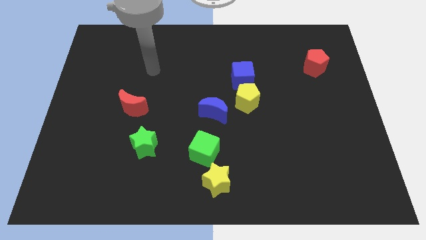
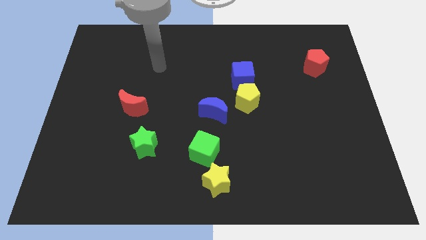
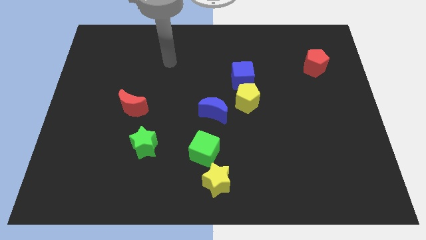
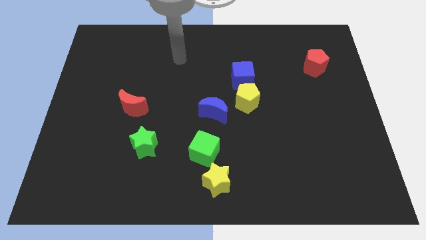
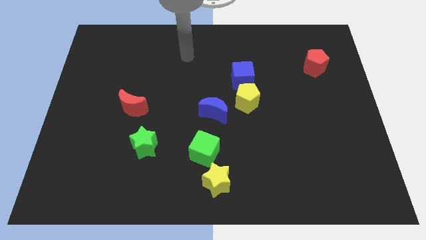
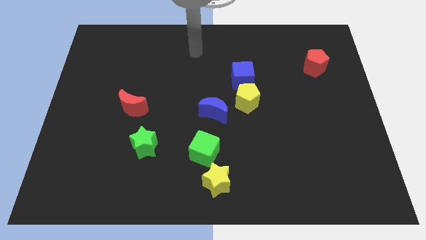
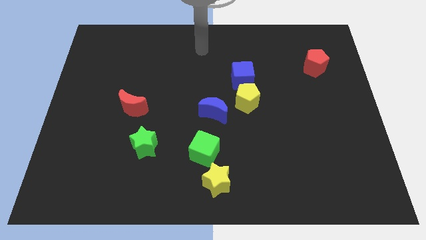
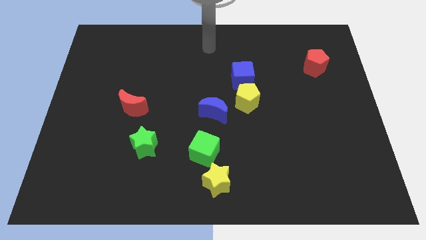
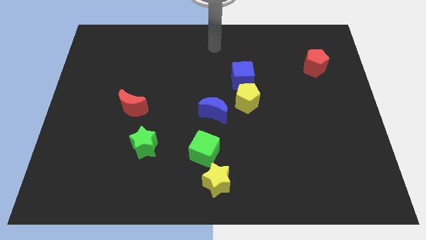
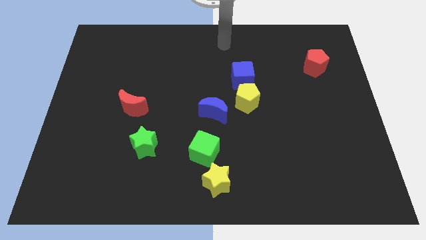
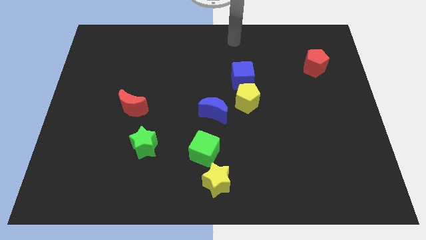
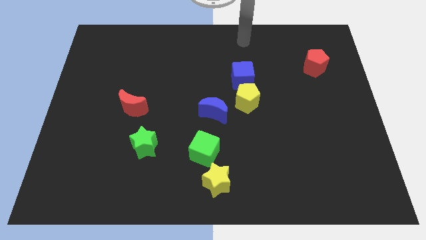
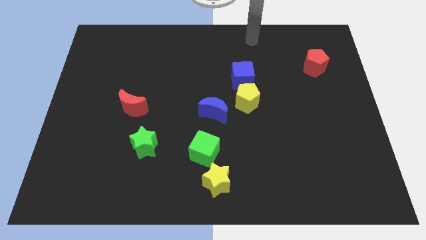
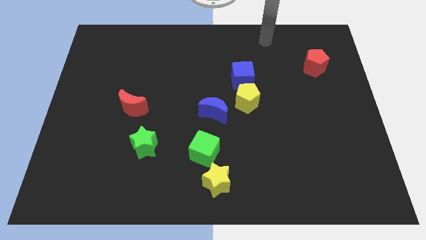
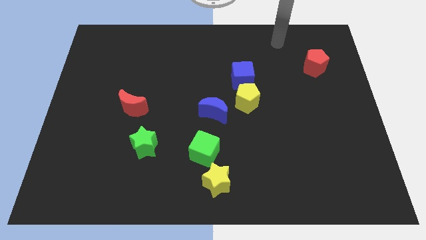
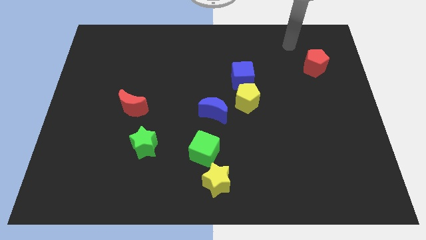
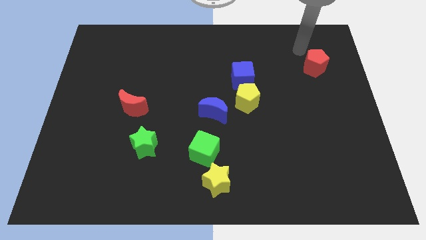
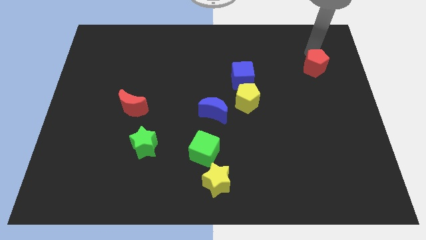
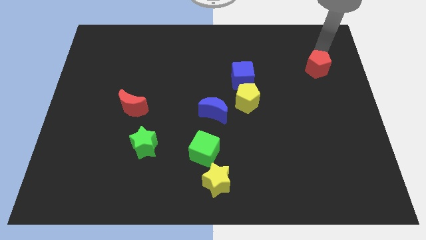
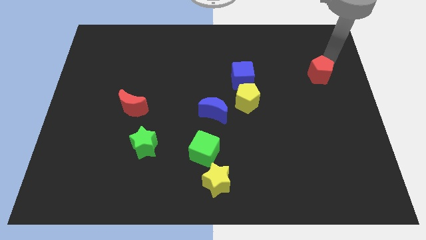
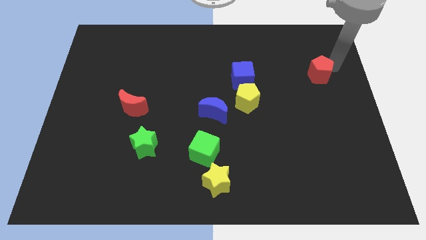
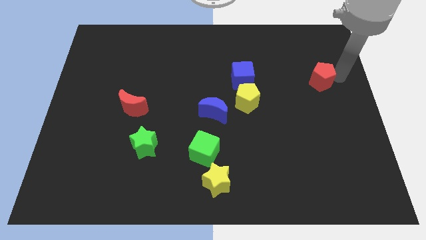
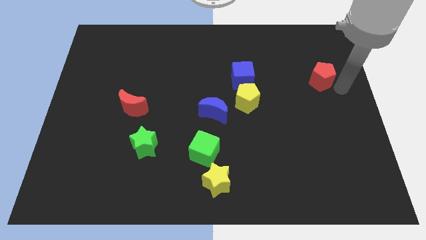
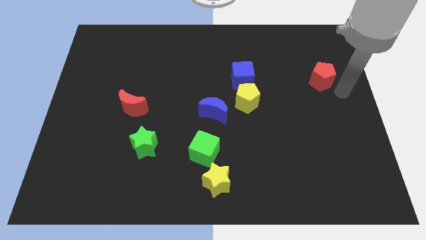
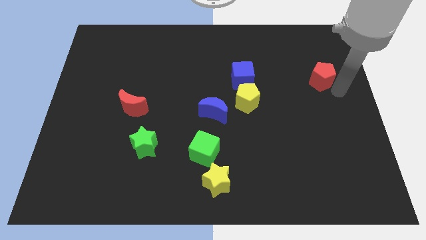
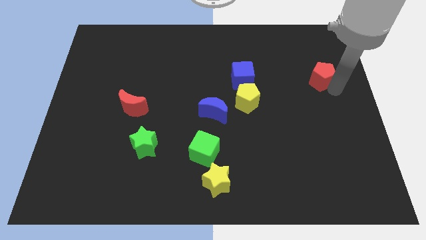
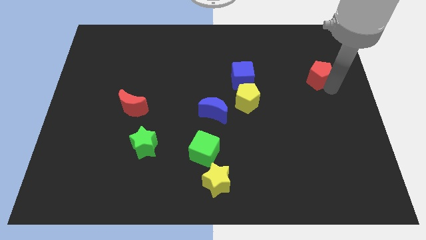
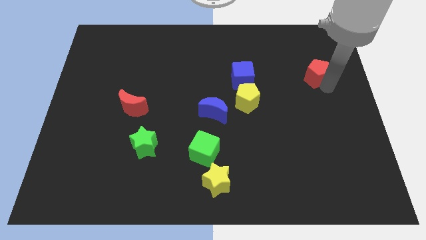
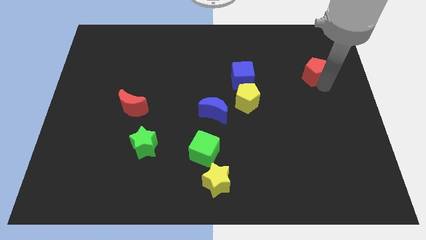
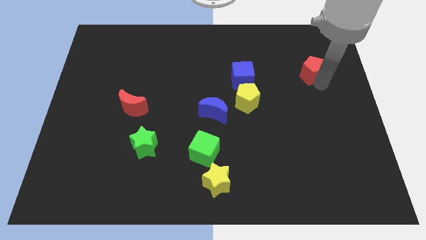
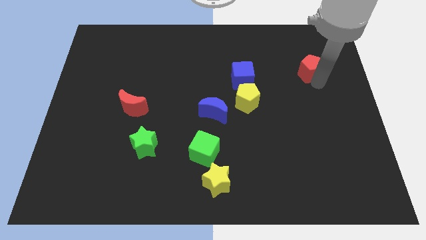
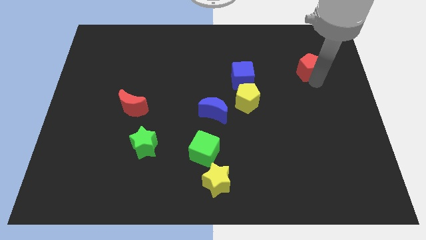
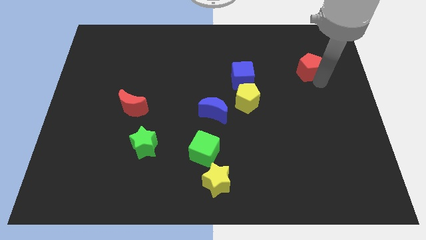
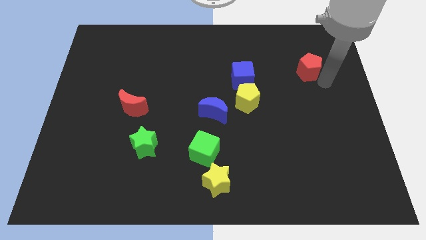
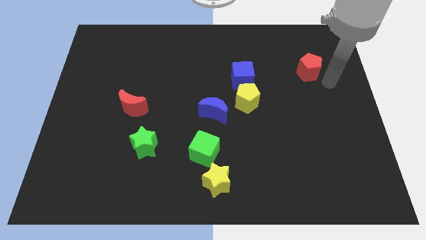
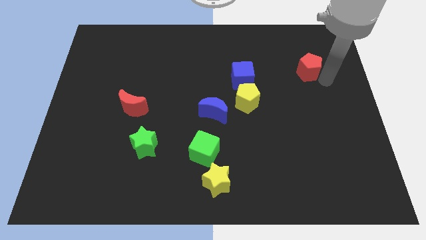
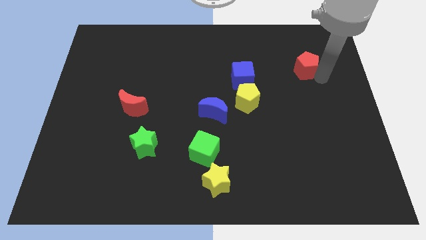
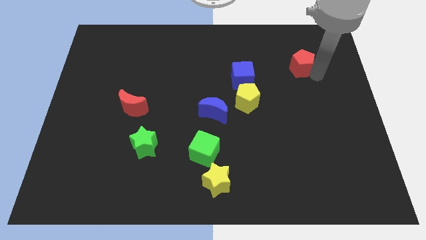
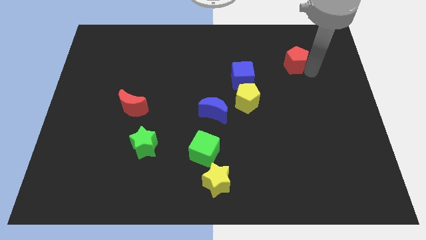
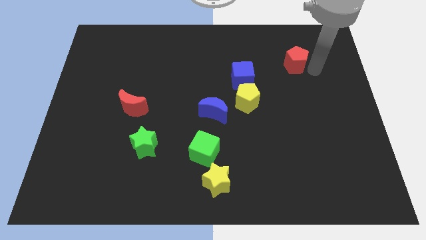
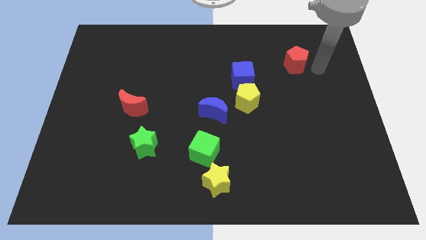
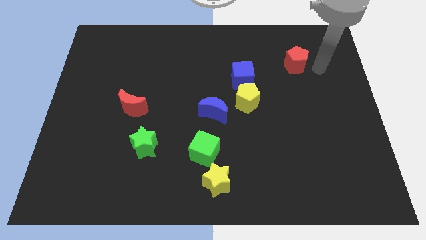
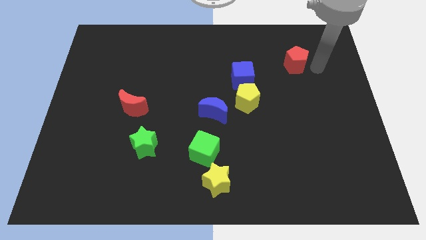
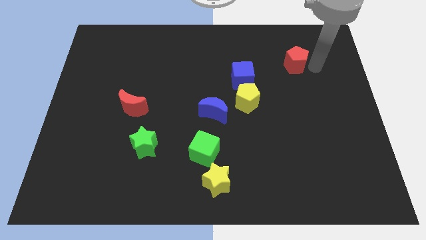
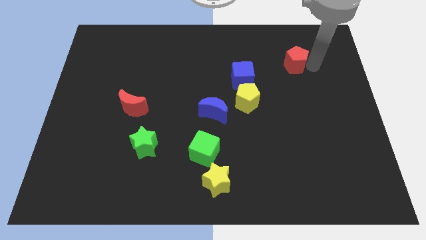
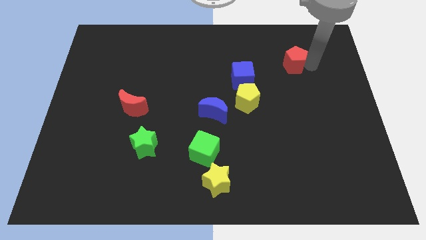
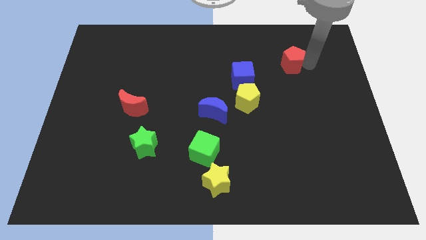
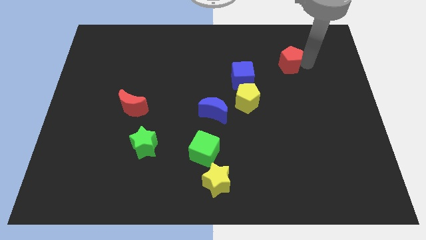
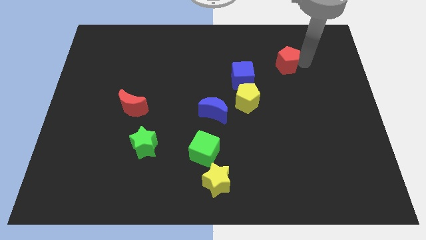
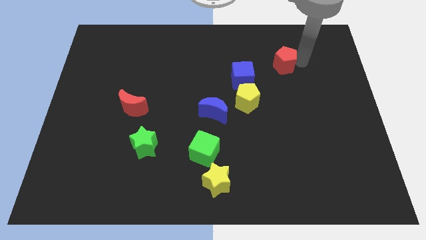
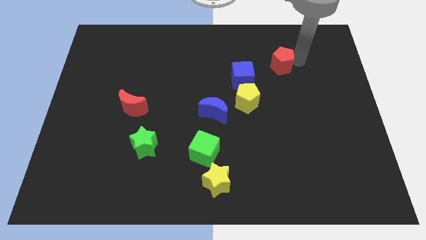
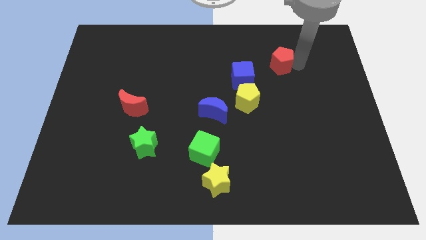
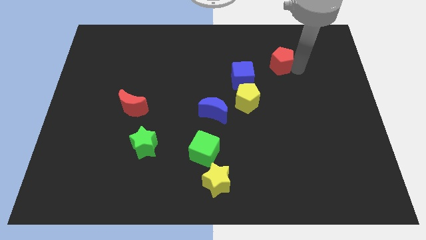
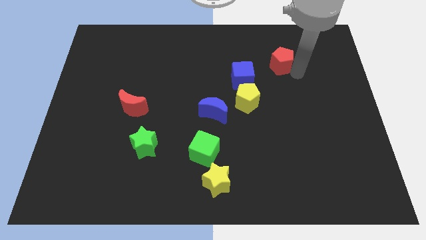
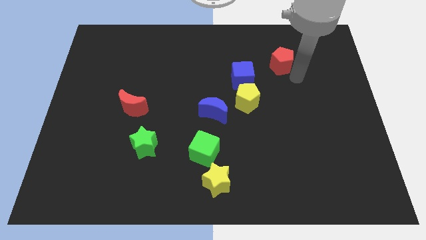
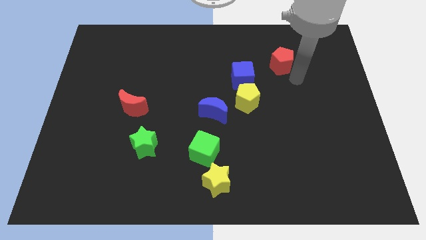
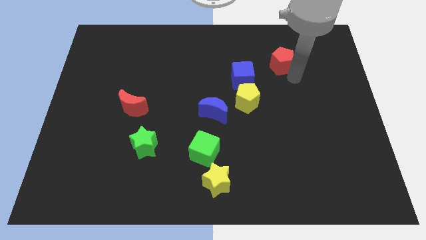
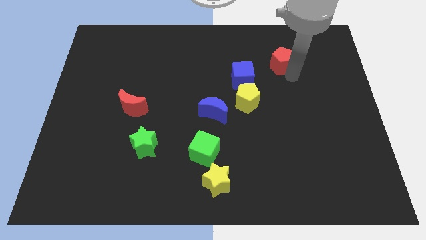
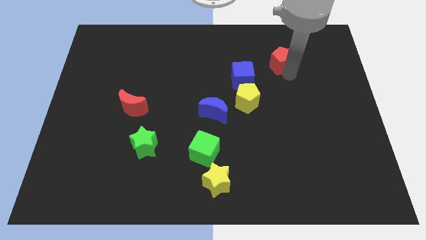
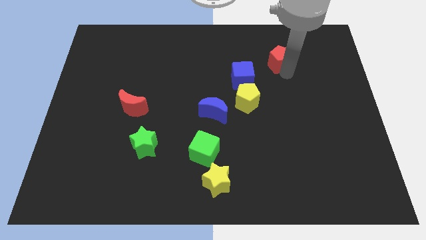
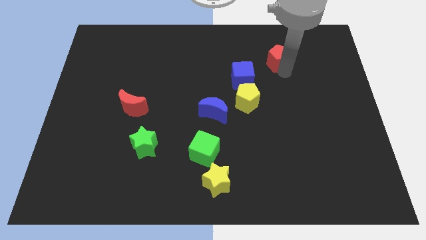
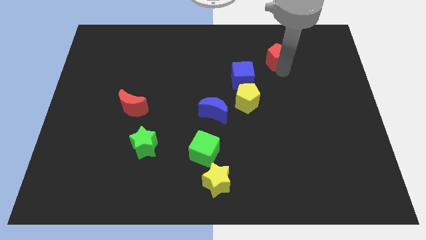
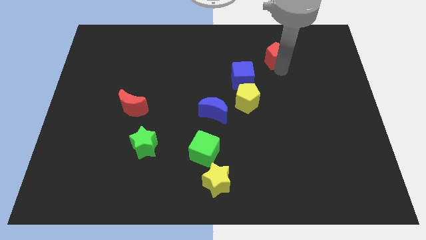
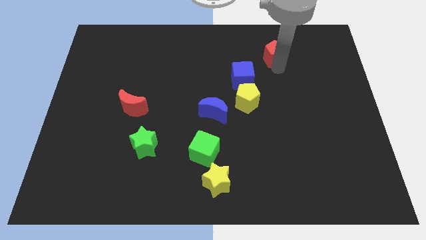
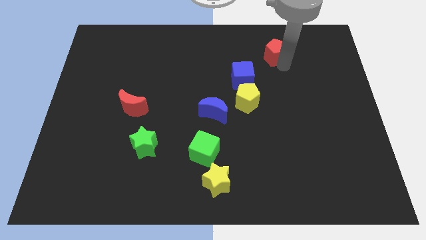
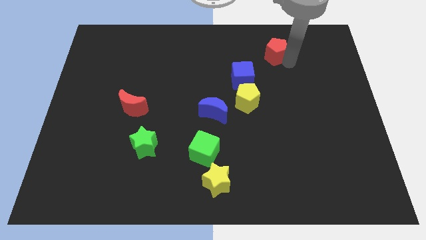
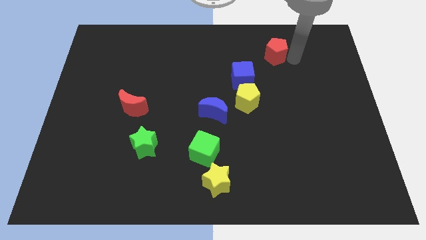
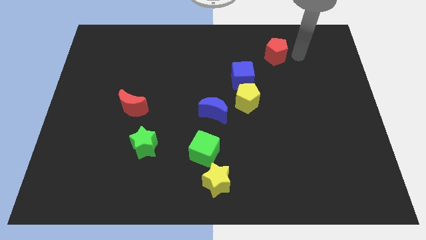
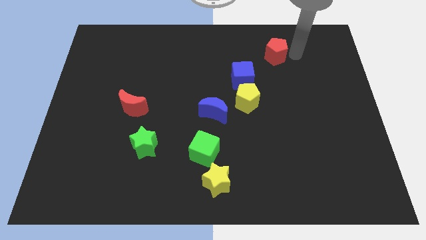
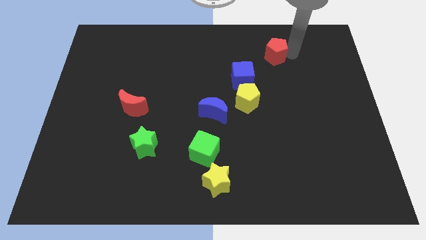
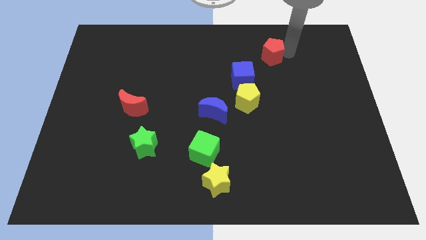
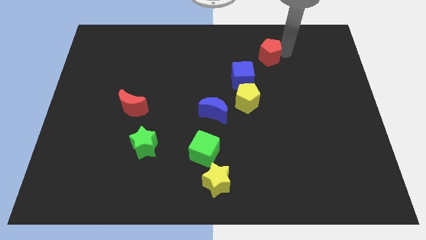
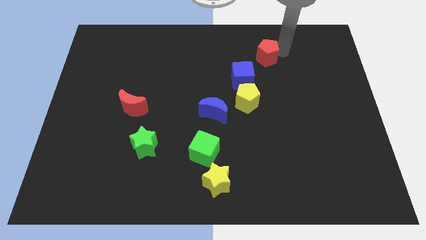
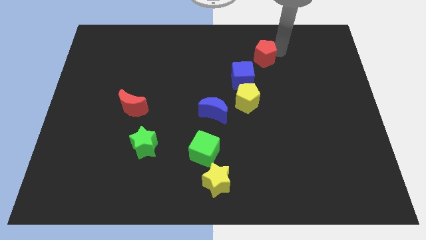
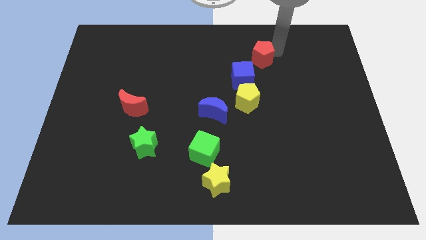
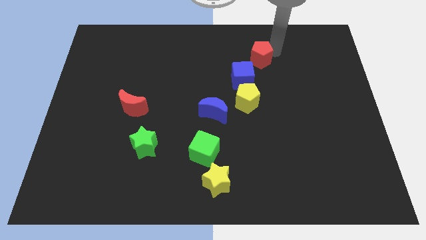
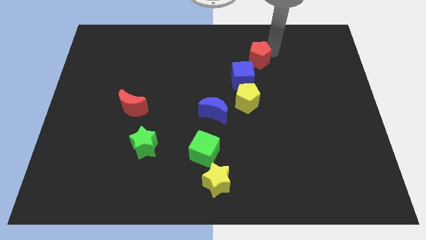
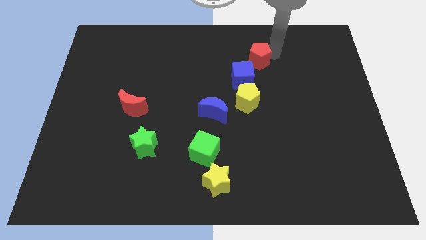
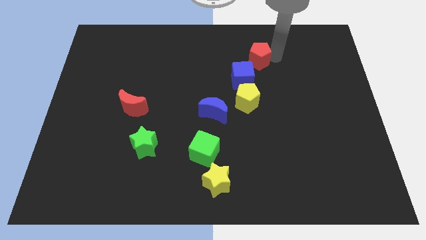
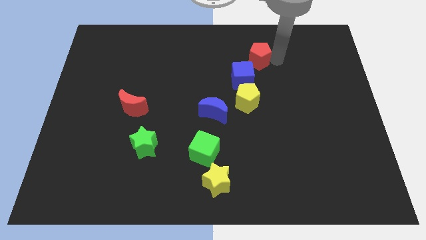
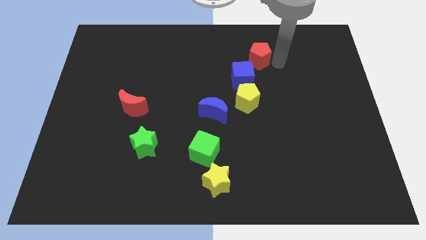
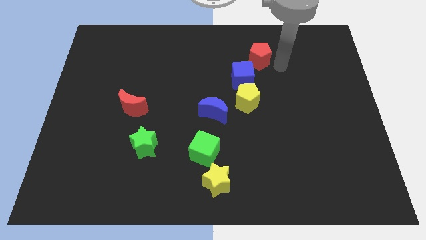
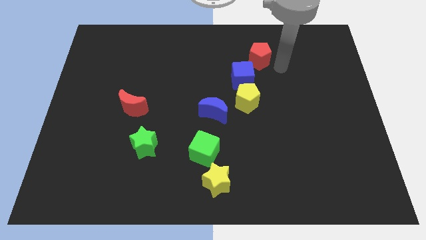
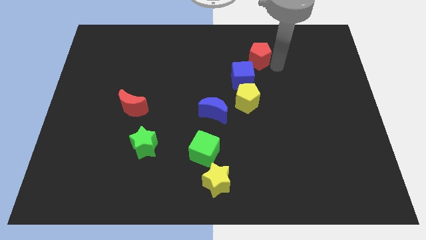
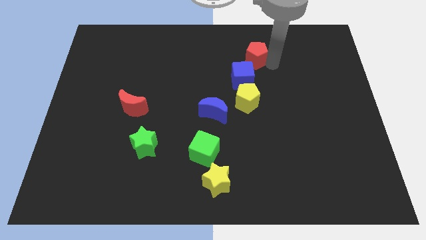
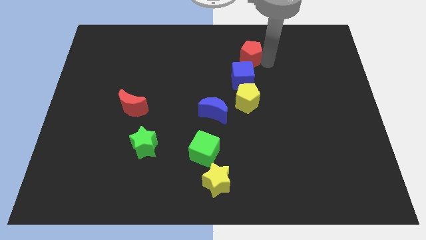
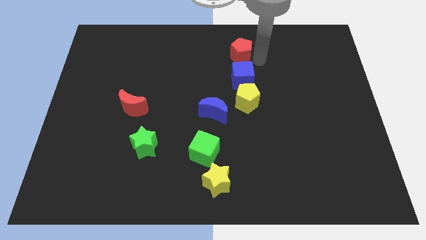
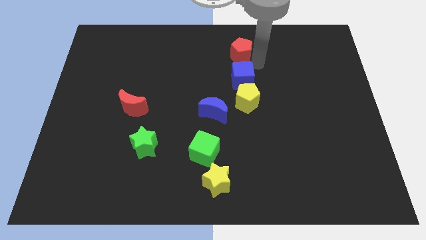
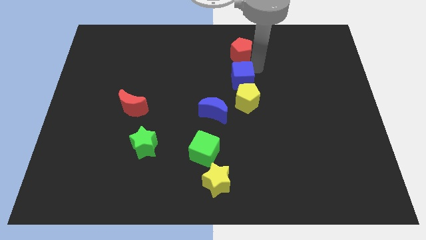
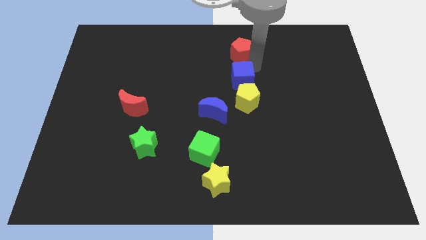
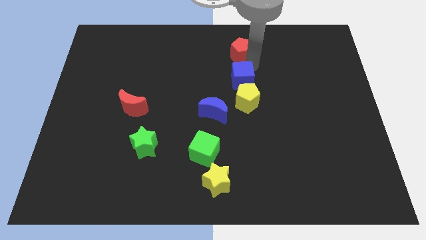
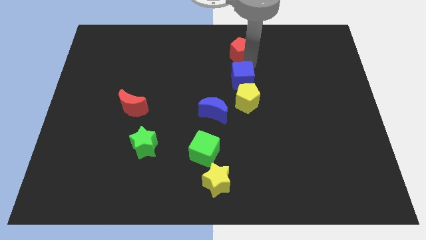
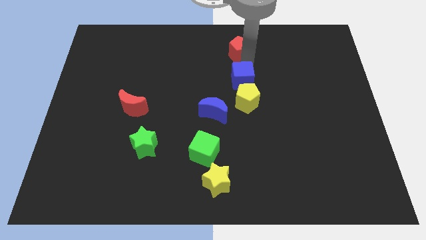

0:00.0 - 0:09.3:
push the red pentagon to the towards your base
